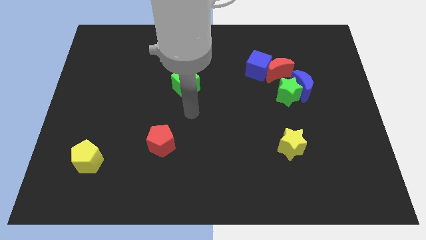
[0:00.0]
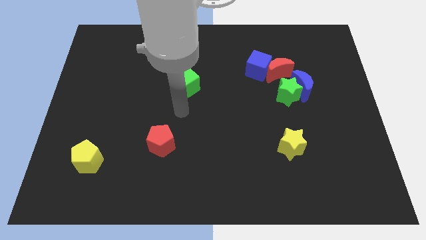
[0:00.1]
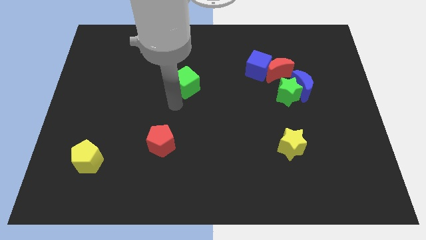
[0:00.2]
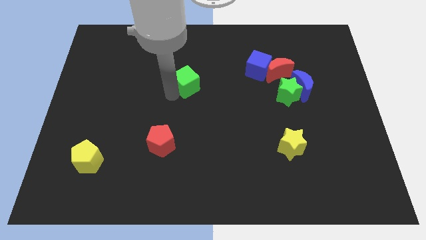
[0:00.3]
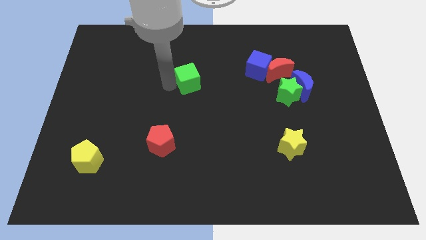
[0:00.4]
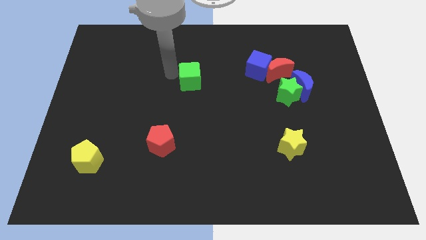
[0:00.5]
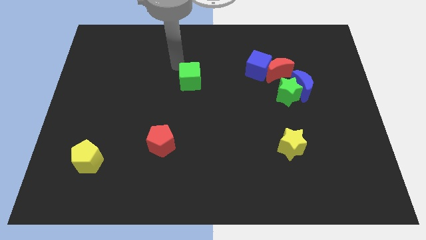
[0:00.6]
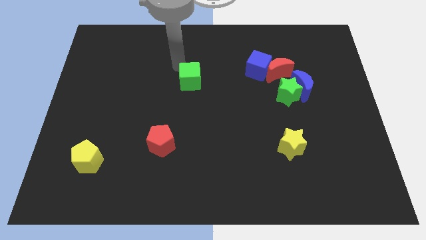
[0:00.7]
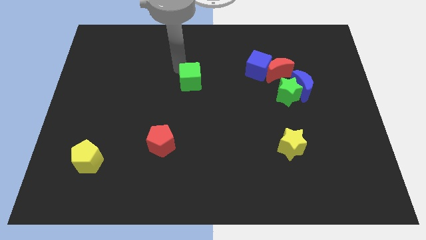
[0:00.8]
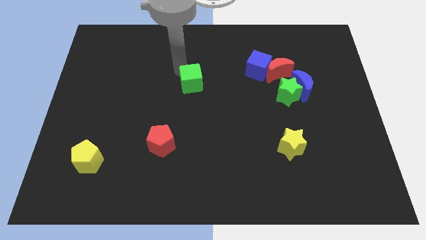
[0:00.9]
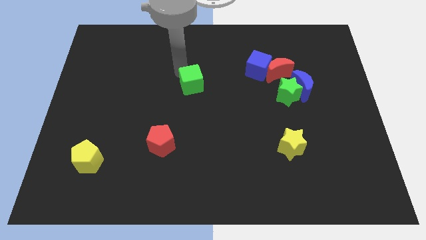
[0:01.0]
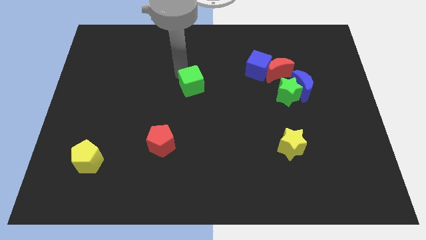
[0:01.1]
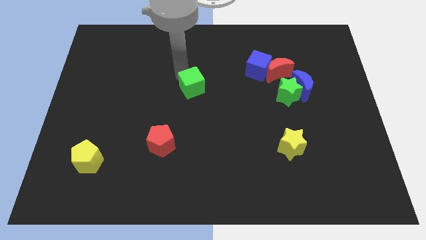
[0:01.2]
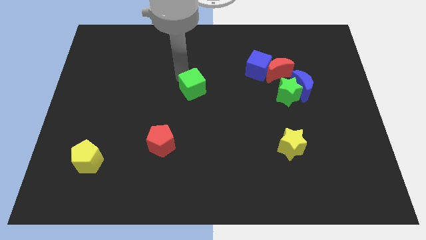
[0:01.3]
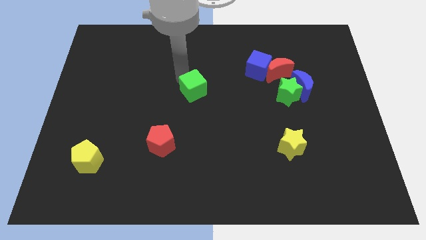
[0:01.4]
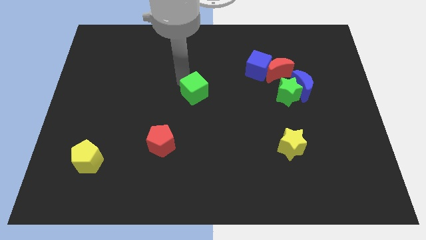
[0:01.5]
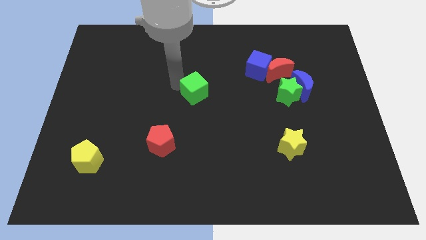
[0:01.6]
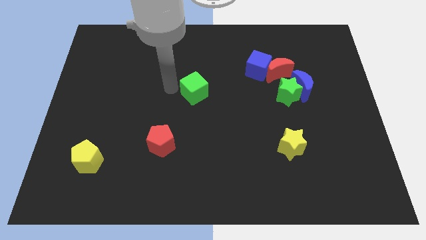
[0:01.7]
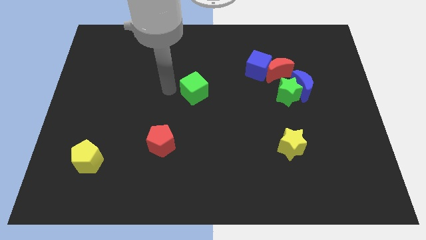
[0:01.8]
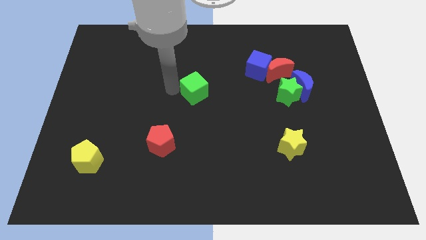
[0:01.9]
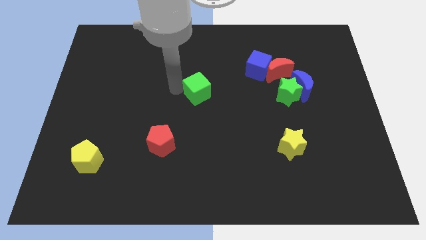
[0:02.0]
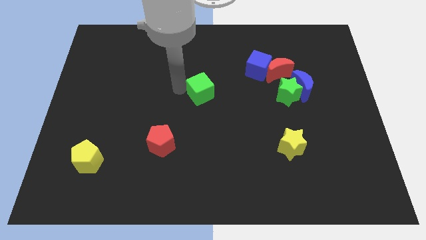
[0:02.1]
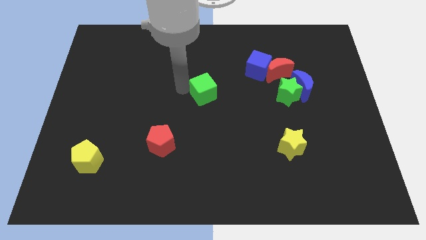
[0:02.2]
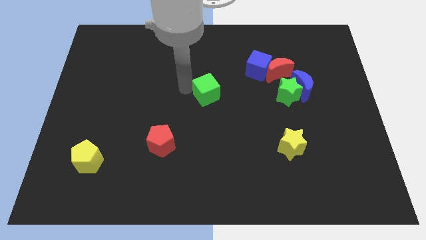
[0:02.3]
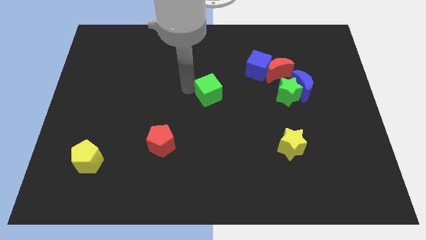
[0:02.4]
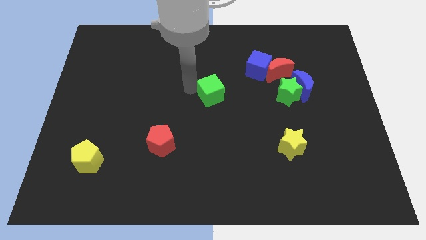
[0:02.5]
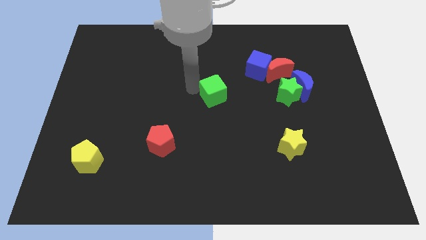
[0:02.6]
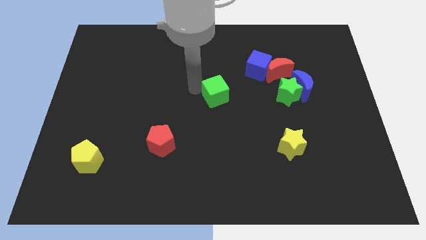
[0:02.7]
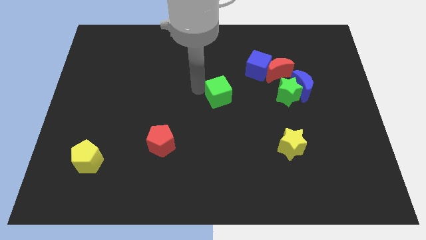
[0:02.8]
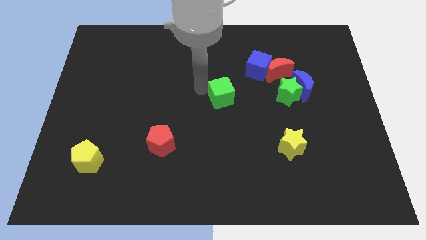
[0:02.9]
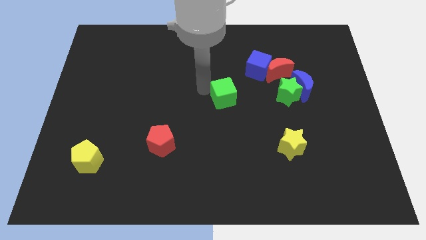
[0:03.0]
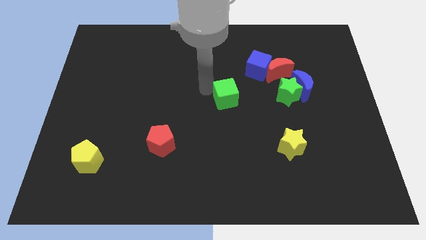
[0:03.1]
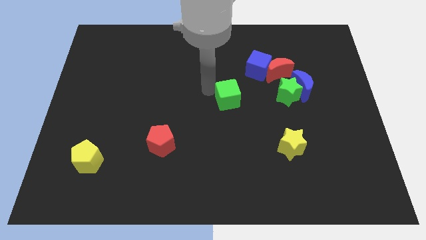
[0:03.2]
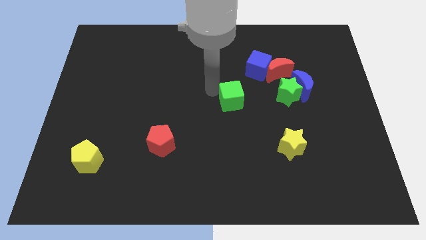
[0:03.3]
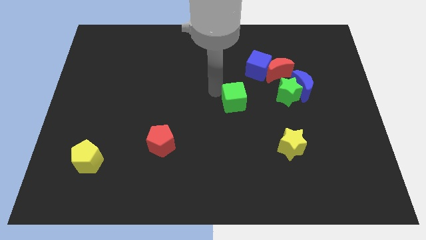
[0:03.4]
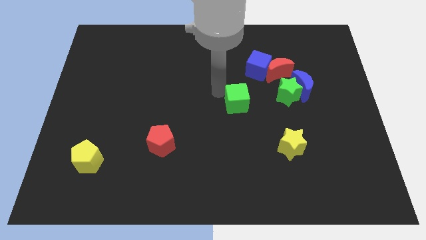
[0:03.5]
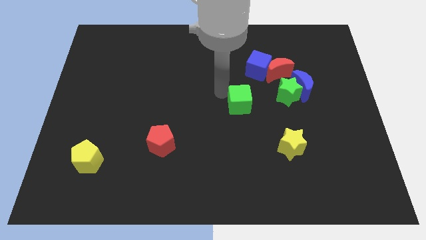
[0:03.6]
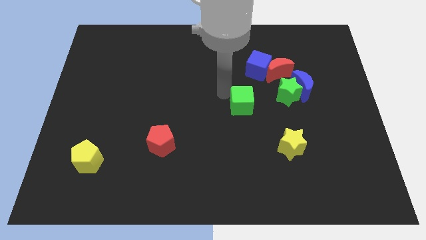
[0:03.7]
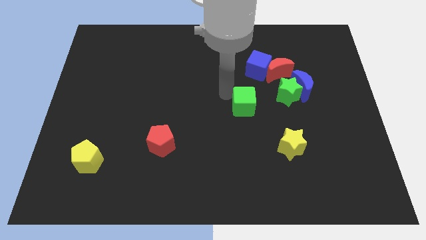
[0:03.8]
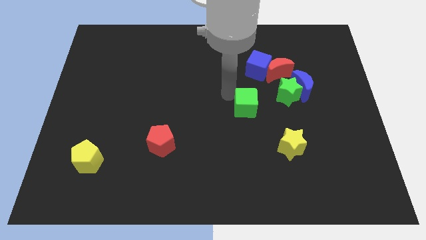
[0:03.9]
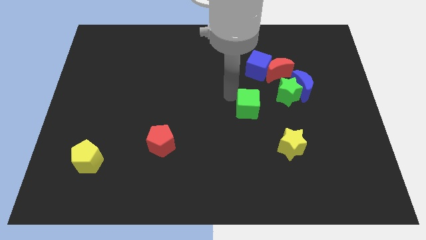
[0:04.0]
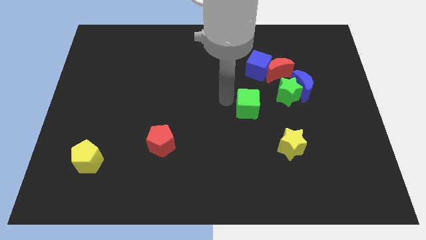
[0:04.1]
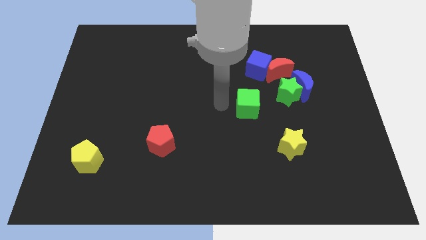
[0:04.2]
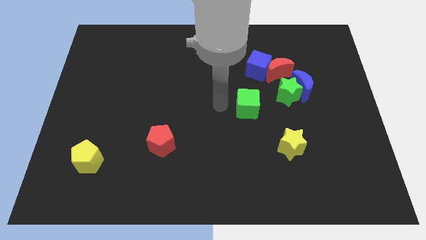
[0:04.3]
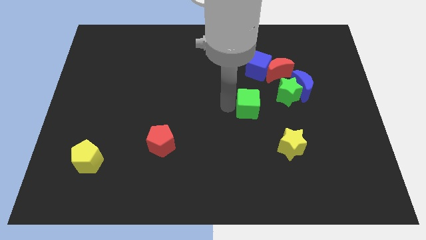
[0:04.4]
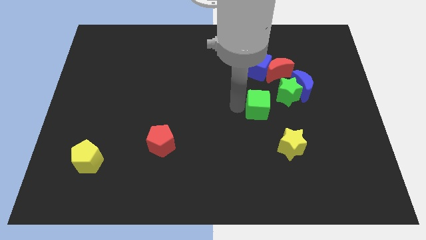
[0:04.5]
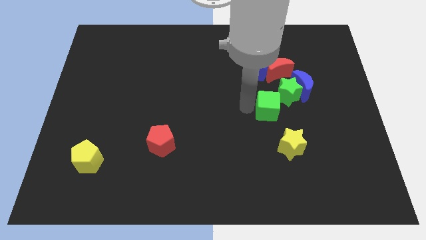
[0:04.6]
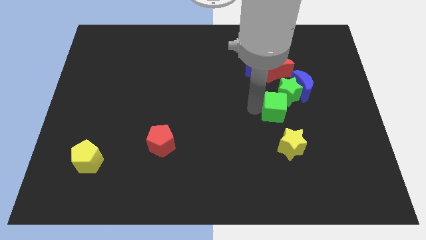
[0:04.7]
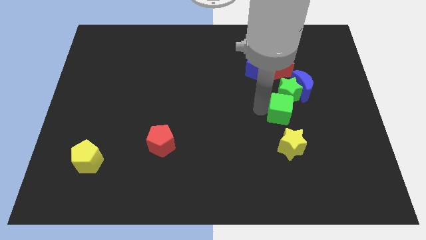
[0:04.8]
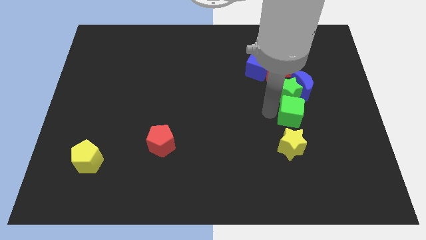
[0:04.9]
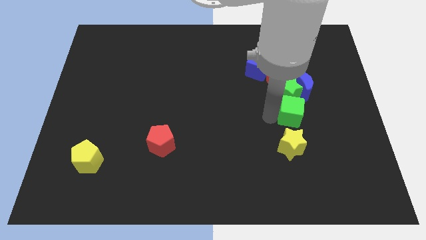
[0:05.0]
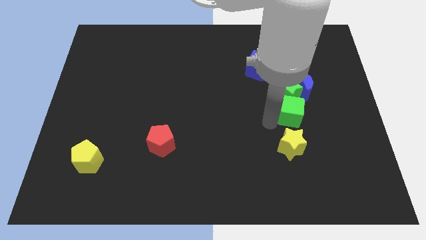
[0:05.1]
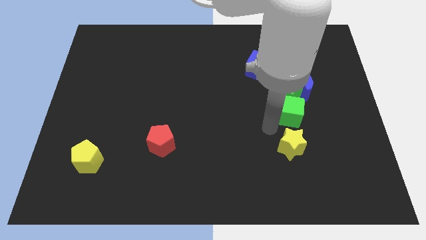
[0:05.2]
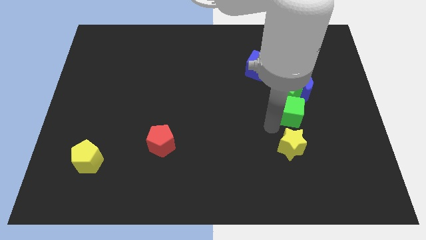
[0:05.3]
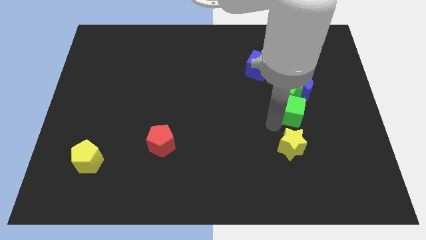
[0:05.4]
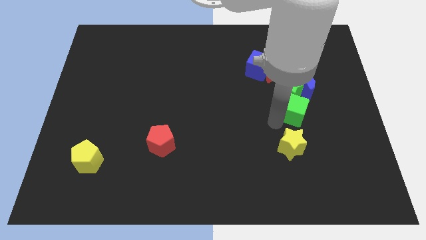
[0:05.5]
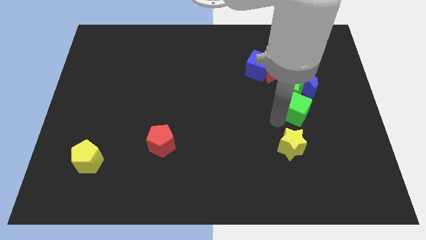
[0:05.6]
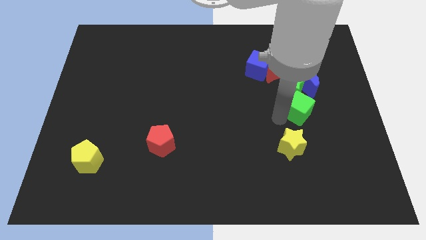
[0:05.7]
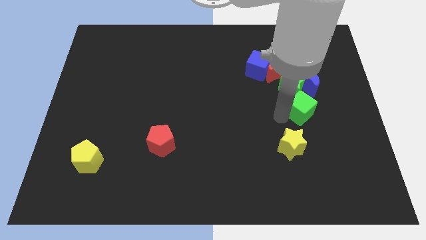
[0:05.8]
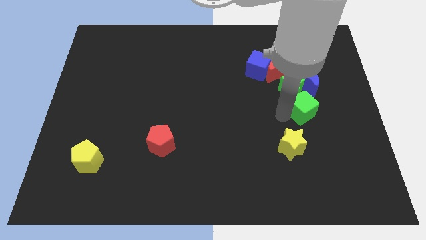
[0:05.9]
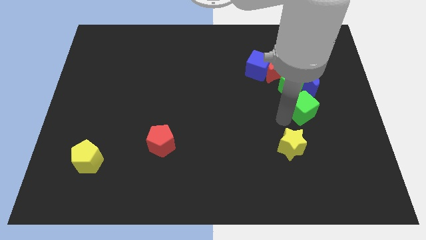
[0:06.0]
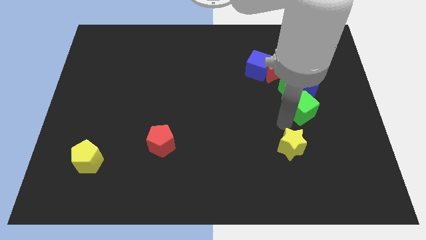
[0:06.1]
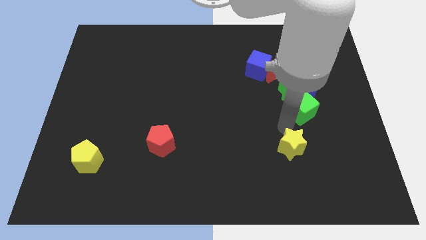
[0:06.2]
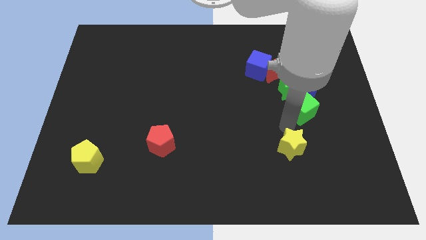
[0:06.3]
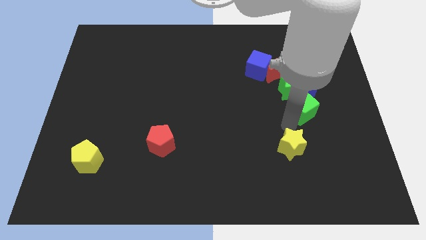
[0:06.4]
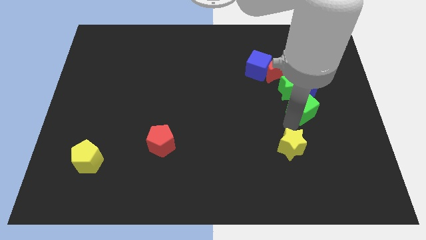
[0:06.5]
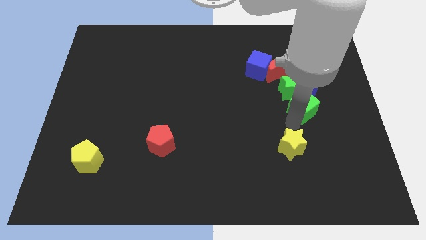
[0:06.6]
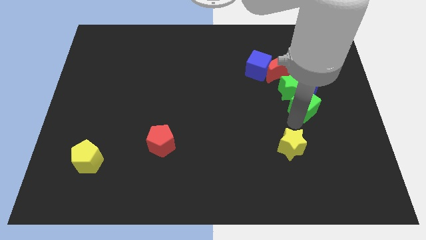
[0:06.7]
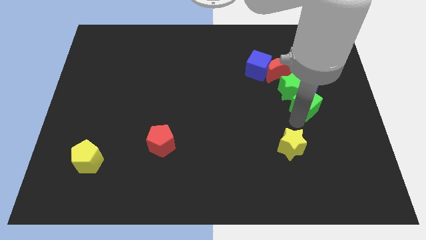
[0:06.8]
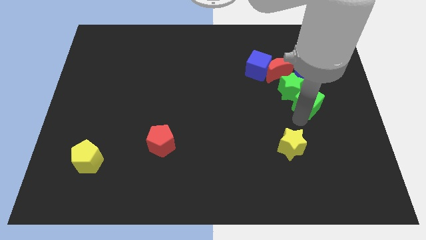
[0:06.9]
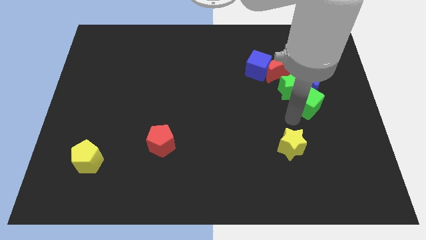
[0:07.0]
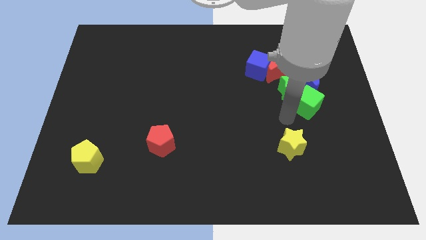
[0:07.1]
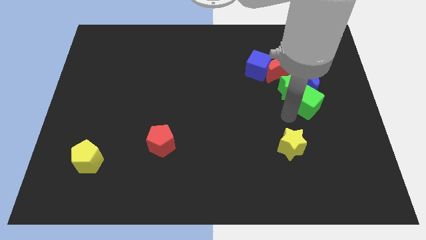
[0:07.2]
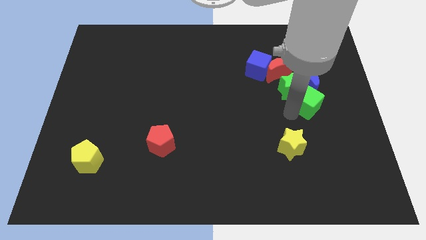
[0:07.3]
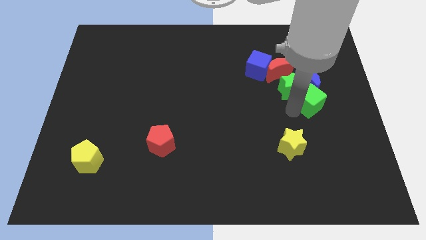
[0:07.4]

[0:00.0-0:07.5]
slide the green cube just right of the green star
